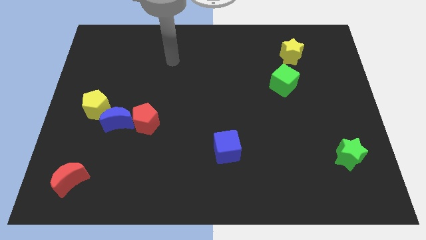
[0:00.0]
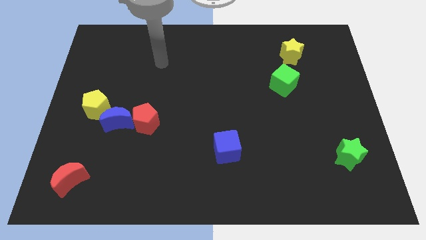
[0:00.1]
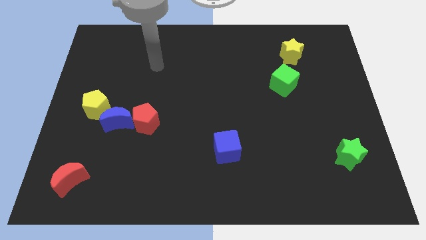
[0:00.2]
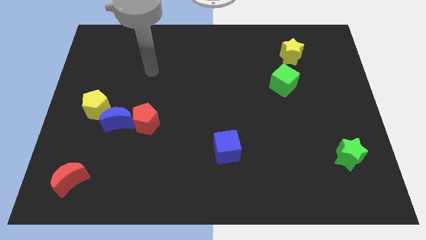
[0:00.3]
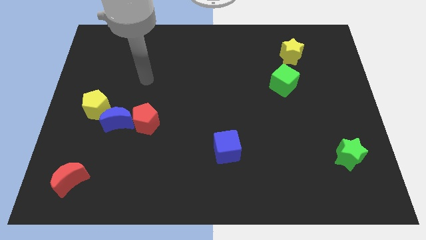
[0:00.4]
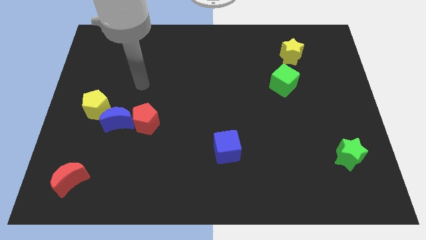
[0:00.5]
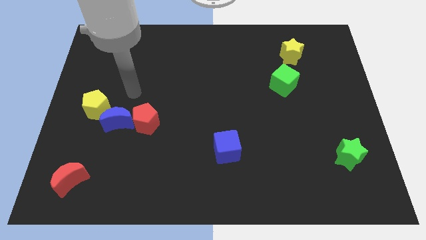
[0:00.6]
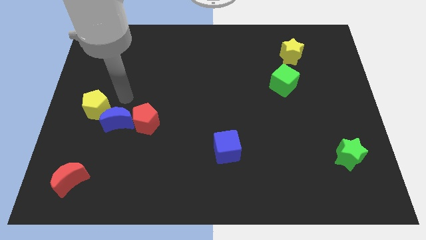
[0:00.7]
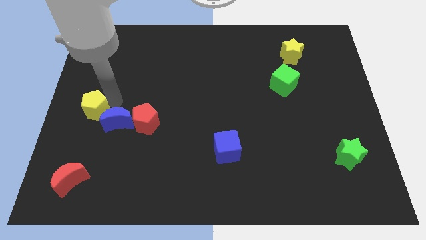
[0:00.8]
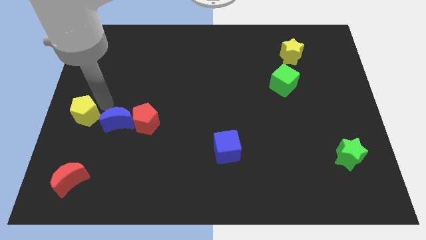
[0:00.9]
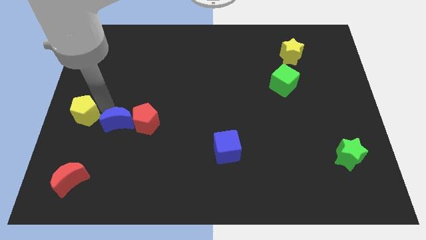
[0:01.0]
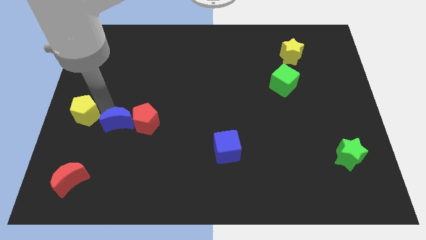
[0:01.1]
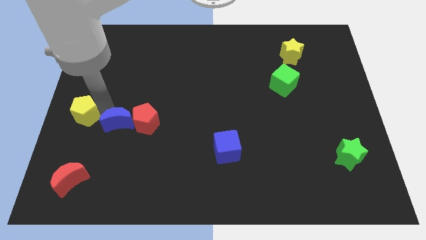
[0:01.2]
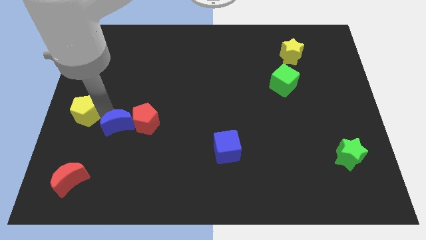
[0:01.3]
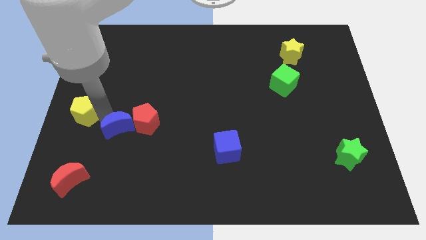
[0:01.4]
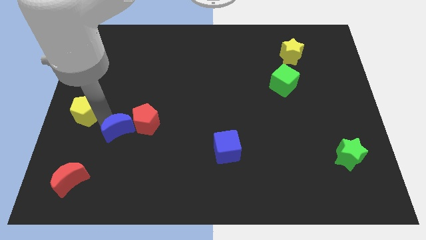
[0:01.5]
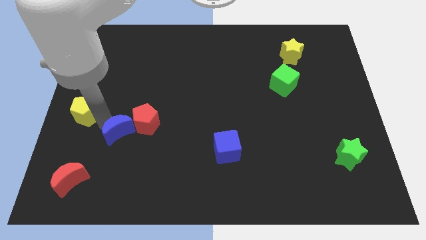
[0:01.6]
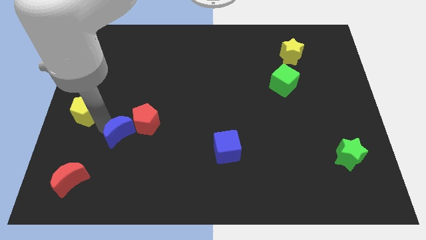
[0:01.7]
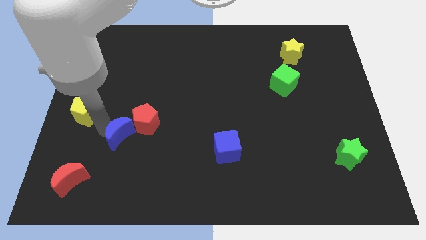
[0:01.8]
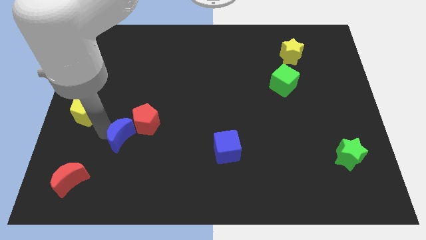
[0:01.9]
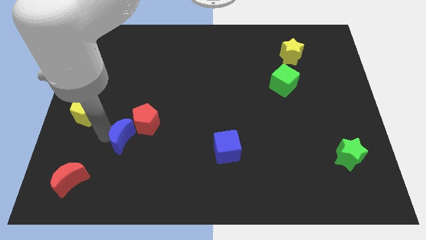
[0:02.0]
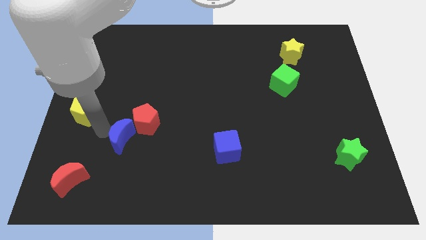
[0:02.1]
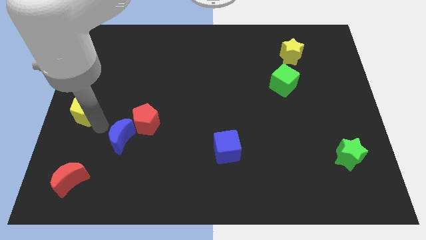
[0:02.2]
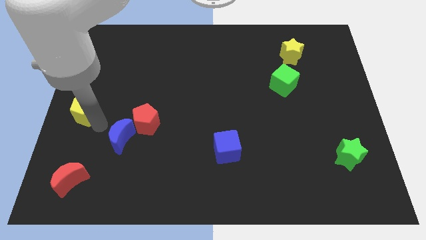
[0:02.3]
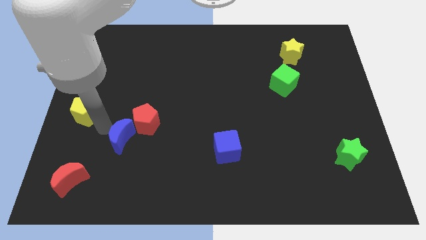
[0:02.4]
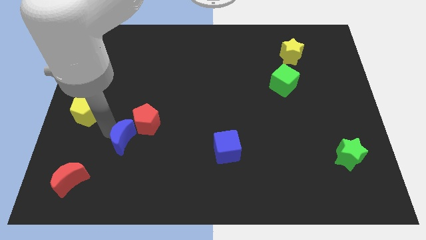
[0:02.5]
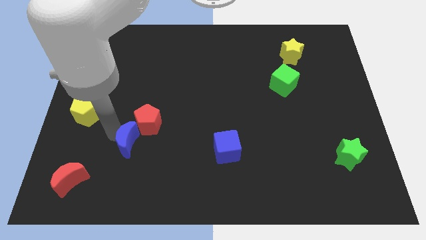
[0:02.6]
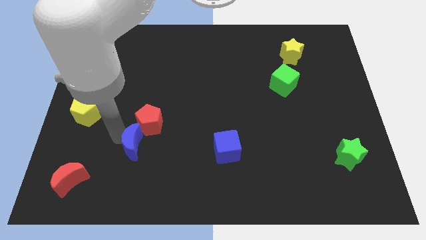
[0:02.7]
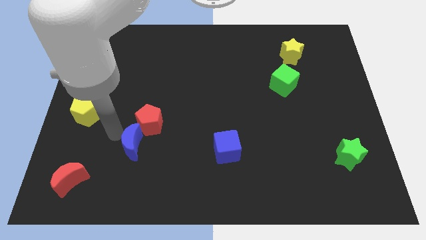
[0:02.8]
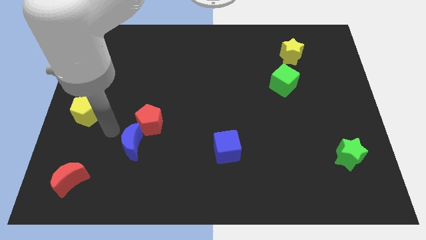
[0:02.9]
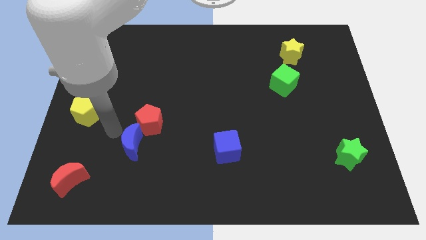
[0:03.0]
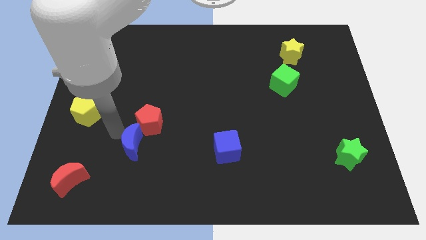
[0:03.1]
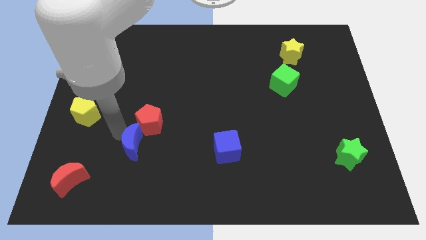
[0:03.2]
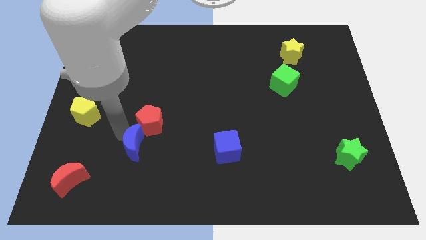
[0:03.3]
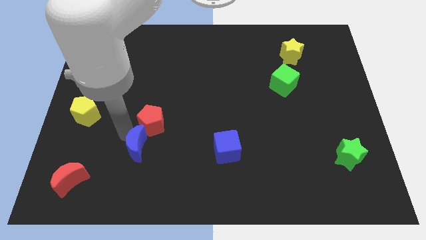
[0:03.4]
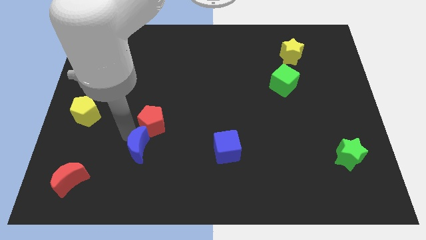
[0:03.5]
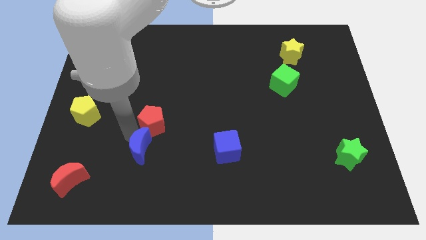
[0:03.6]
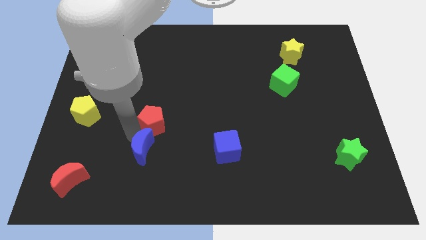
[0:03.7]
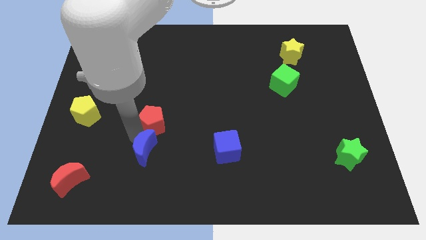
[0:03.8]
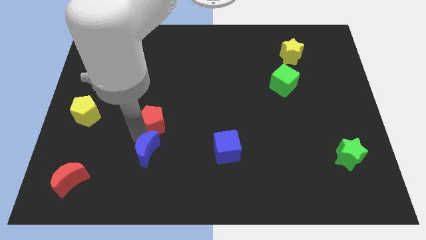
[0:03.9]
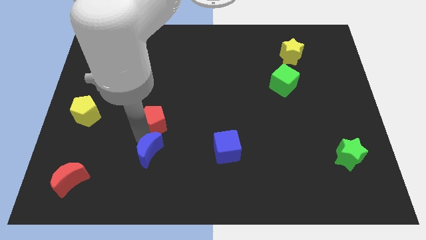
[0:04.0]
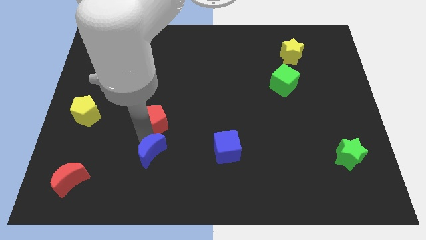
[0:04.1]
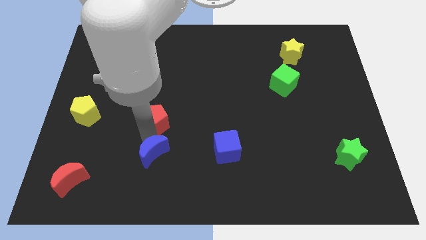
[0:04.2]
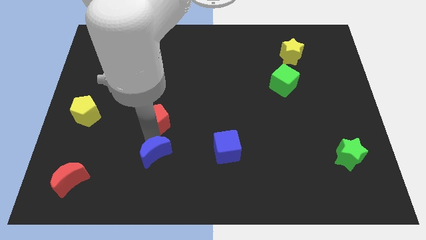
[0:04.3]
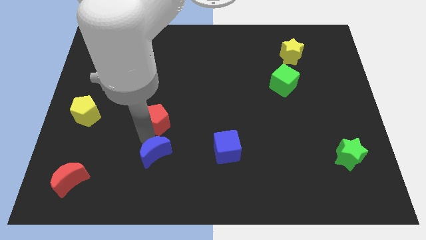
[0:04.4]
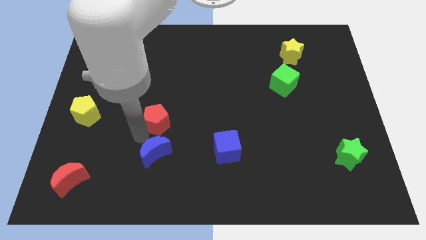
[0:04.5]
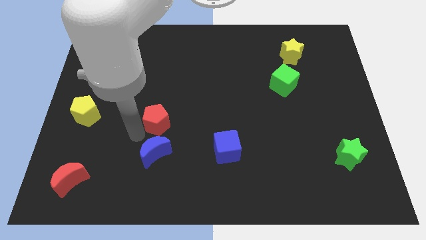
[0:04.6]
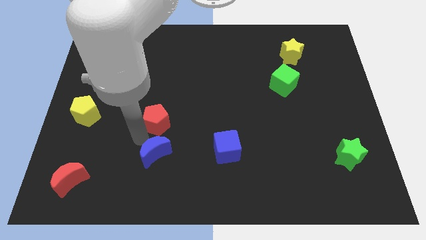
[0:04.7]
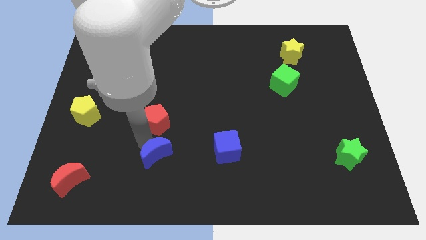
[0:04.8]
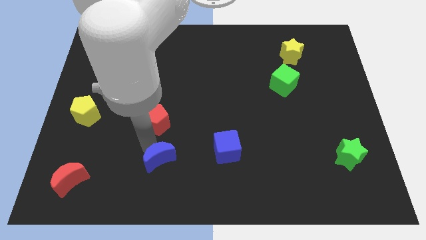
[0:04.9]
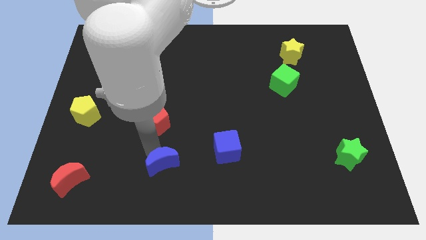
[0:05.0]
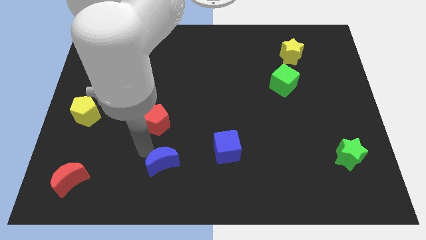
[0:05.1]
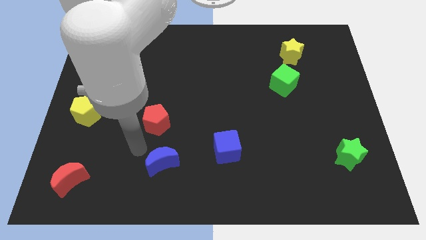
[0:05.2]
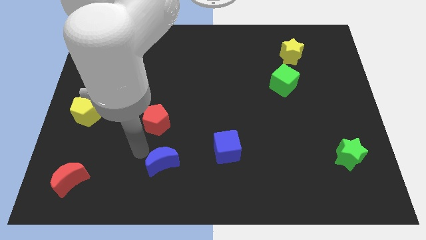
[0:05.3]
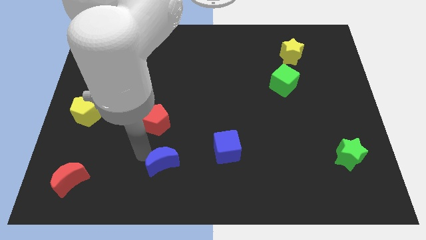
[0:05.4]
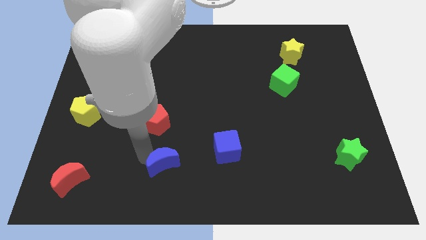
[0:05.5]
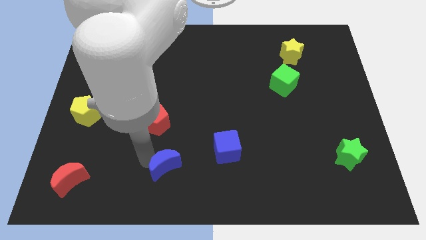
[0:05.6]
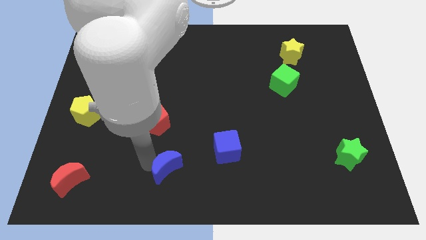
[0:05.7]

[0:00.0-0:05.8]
move the blue moon to the bottom
